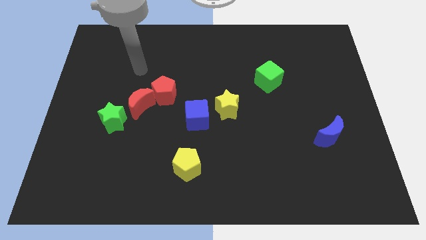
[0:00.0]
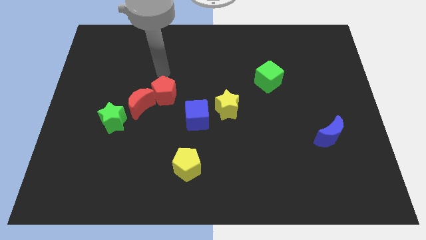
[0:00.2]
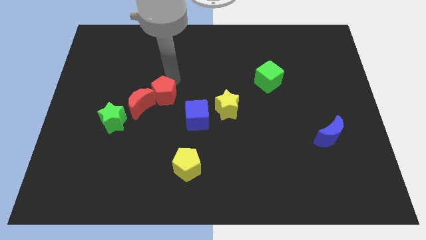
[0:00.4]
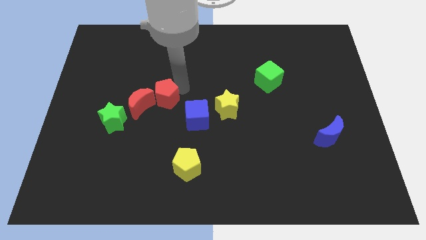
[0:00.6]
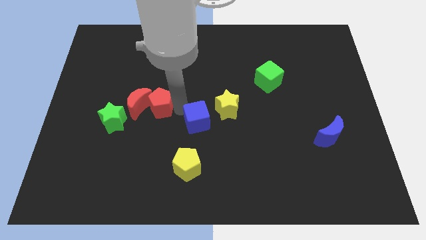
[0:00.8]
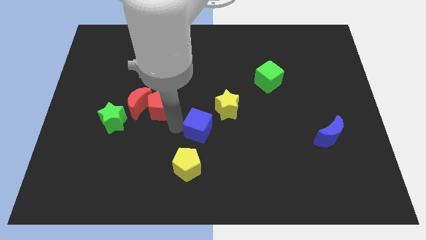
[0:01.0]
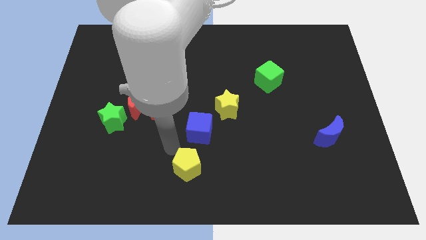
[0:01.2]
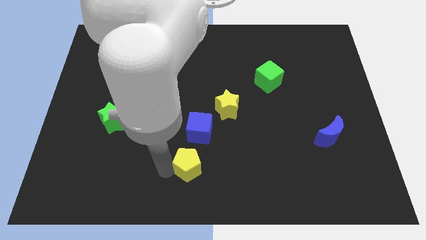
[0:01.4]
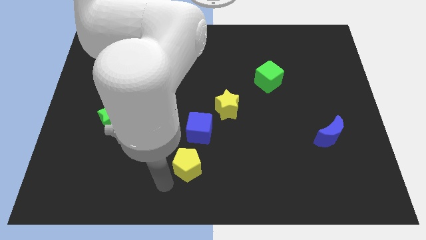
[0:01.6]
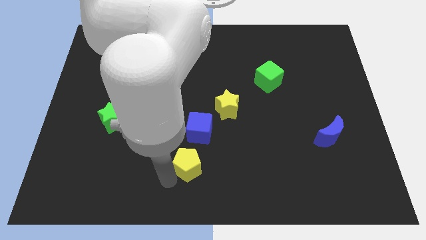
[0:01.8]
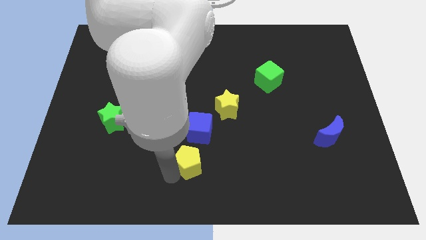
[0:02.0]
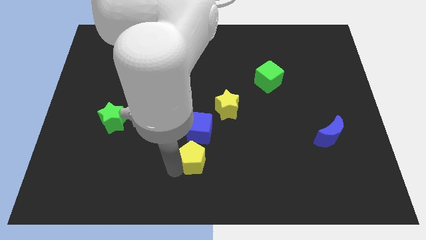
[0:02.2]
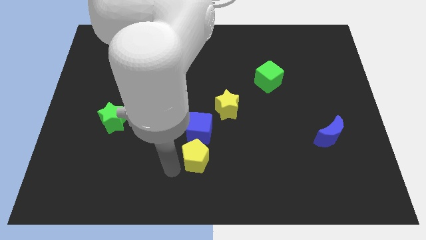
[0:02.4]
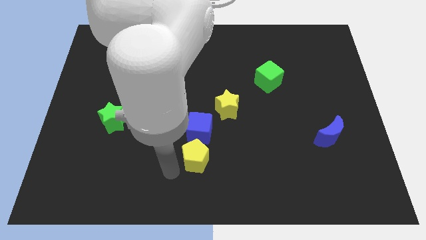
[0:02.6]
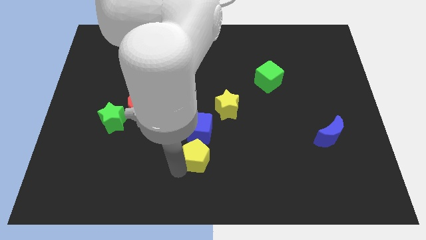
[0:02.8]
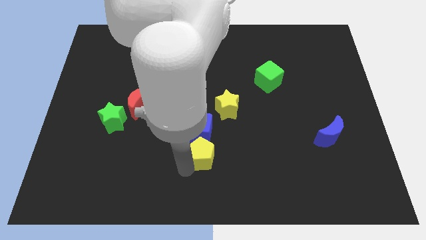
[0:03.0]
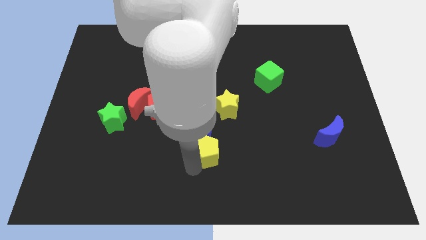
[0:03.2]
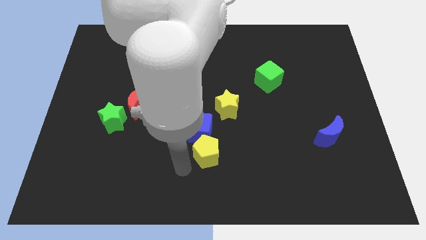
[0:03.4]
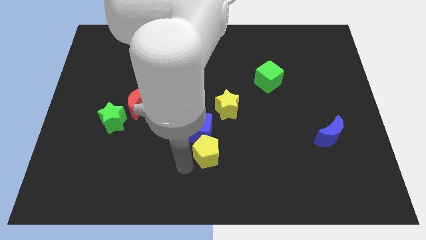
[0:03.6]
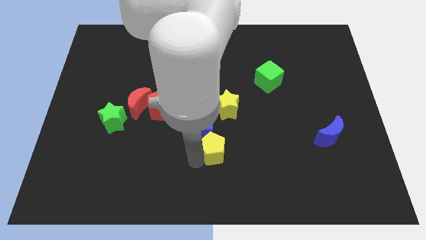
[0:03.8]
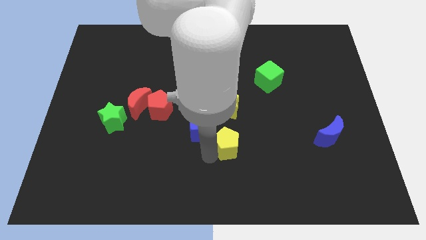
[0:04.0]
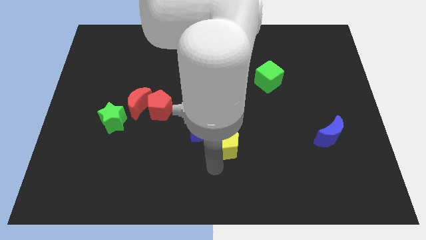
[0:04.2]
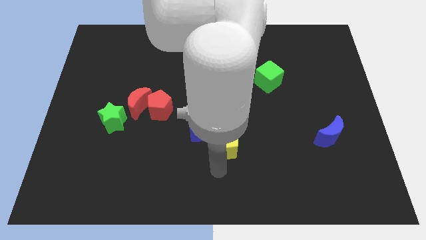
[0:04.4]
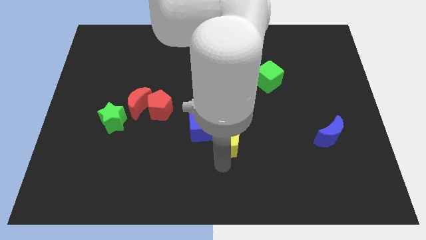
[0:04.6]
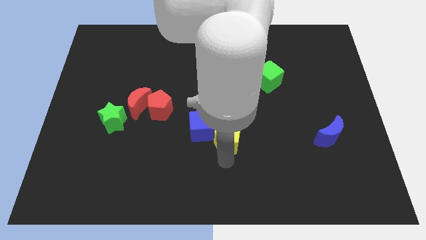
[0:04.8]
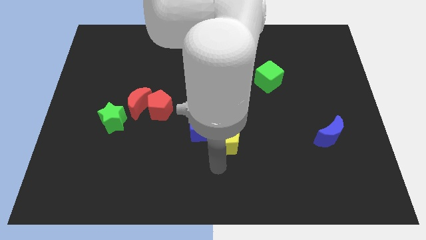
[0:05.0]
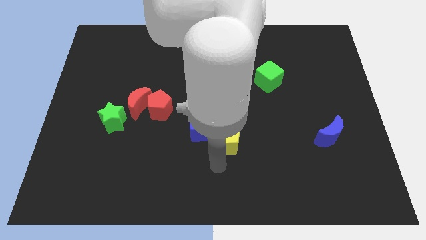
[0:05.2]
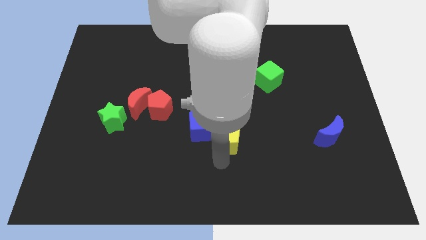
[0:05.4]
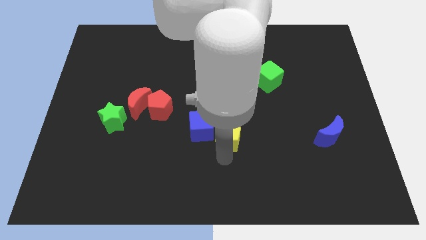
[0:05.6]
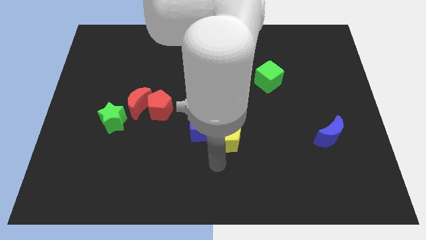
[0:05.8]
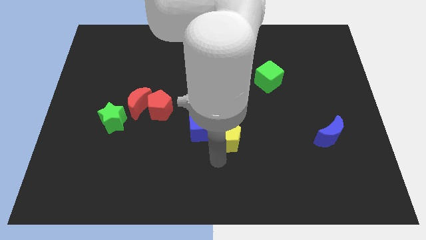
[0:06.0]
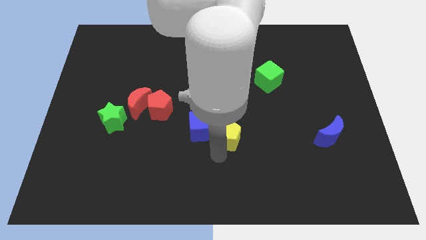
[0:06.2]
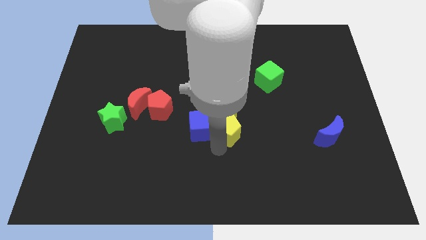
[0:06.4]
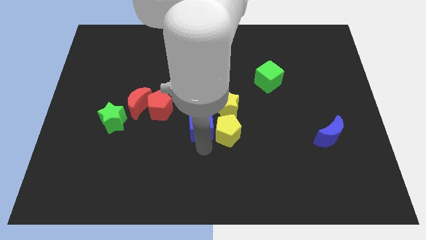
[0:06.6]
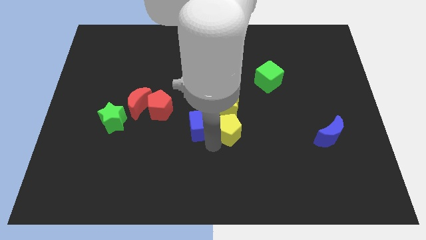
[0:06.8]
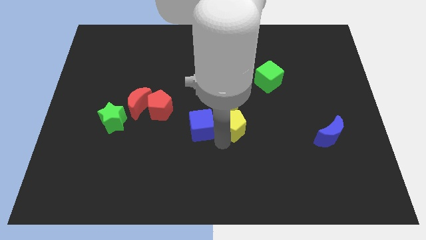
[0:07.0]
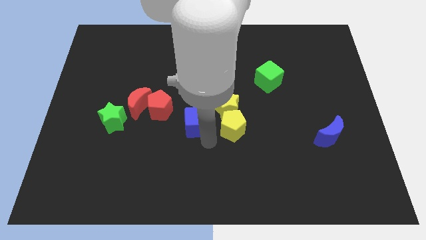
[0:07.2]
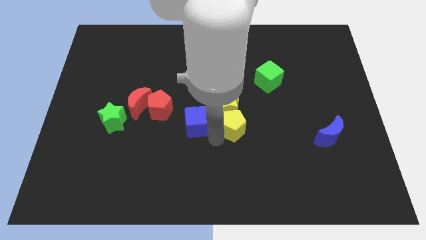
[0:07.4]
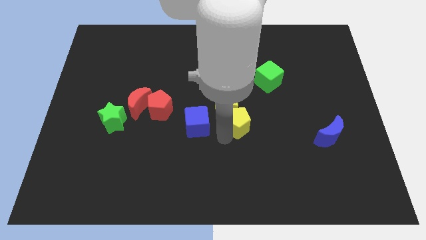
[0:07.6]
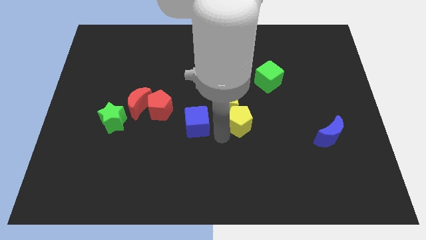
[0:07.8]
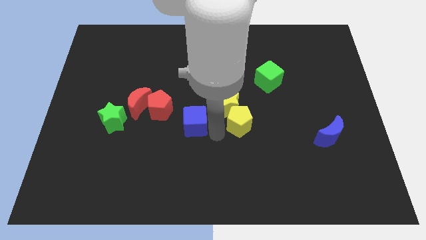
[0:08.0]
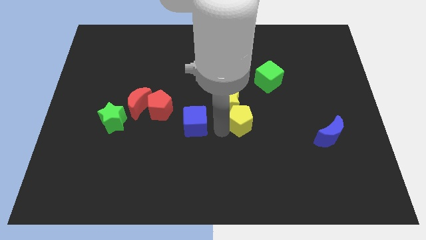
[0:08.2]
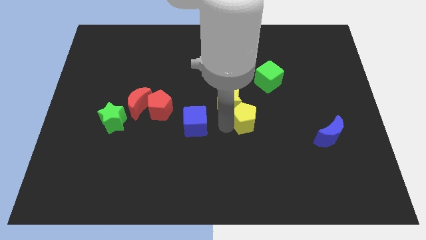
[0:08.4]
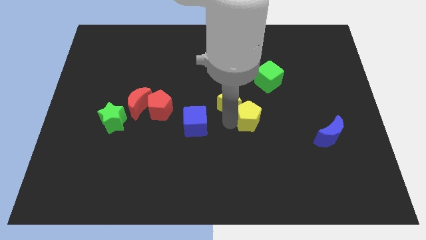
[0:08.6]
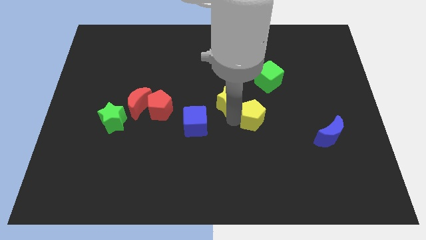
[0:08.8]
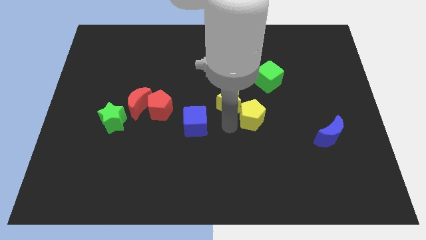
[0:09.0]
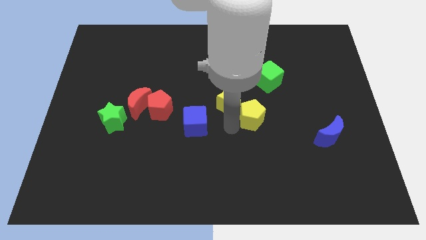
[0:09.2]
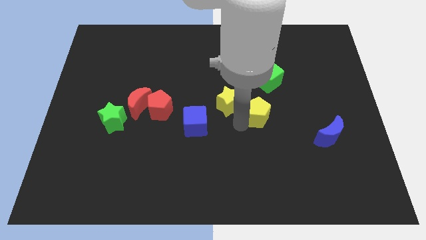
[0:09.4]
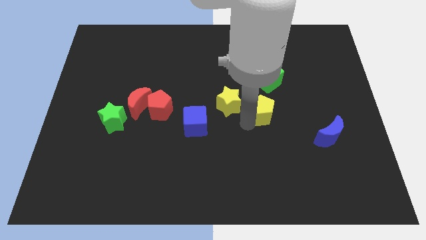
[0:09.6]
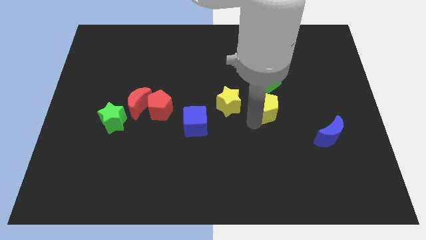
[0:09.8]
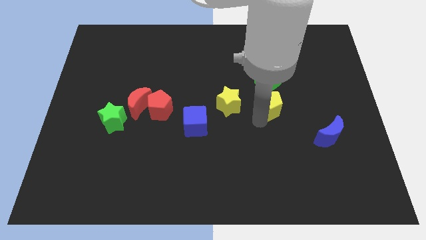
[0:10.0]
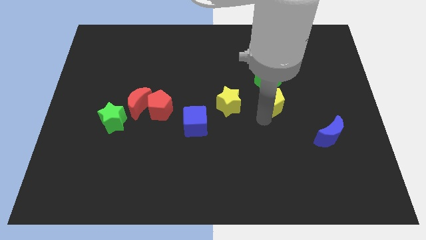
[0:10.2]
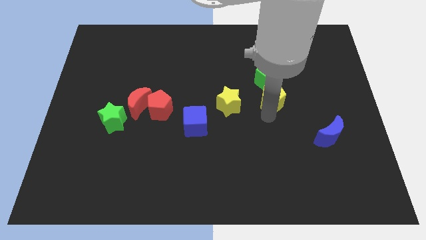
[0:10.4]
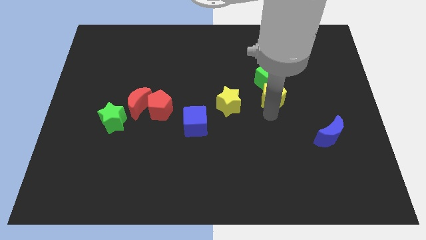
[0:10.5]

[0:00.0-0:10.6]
put the yellow pentagon to the green cube

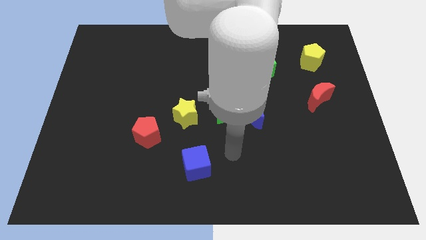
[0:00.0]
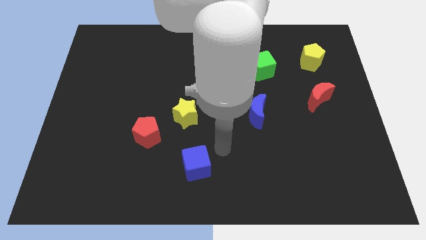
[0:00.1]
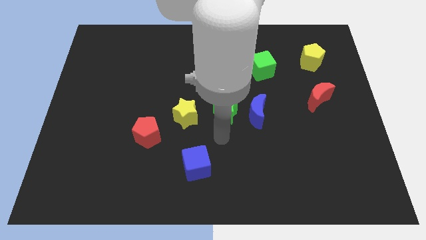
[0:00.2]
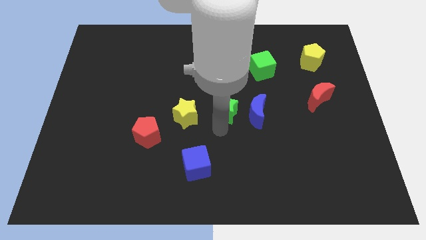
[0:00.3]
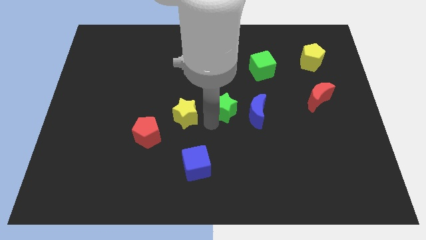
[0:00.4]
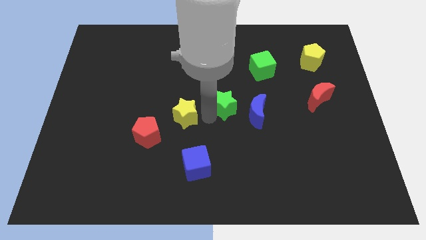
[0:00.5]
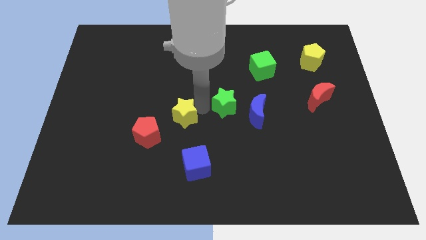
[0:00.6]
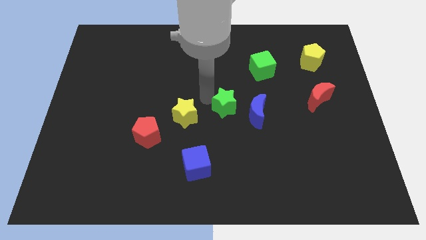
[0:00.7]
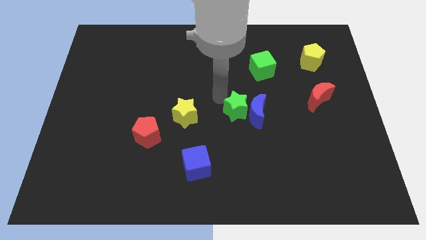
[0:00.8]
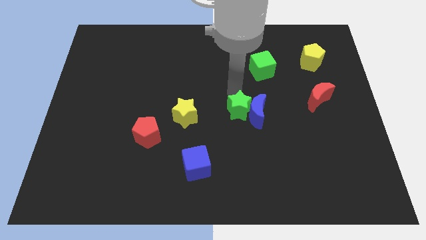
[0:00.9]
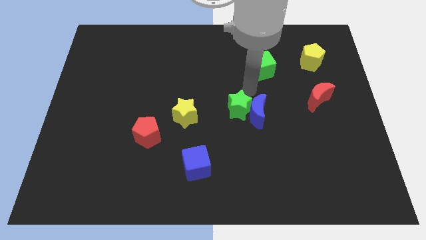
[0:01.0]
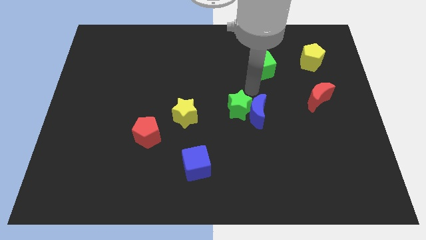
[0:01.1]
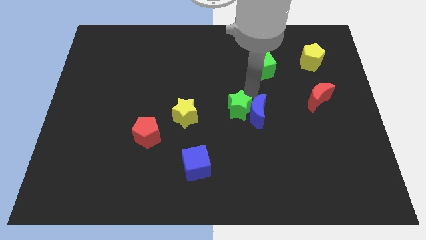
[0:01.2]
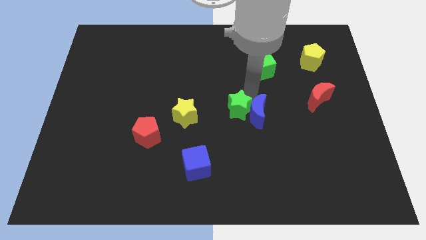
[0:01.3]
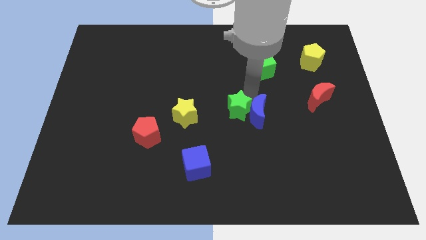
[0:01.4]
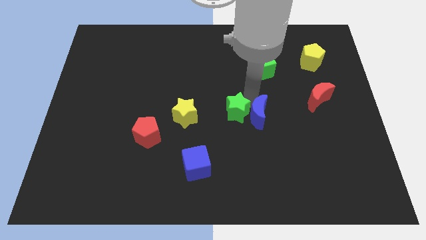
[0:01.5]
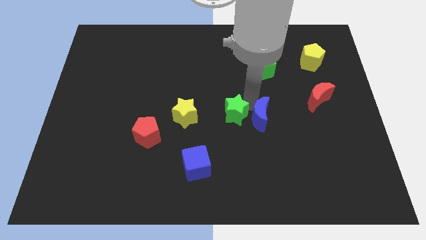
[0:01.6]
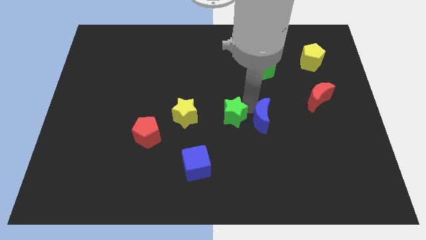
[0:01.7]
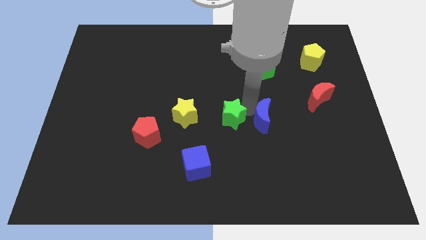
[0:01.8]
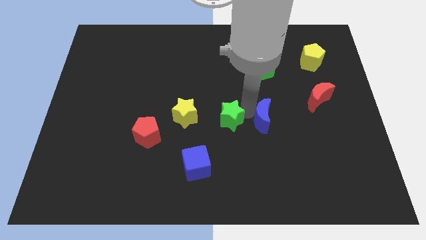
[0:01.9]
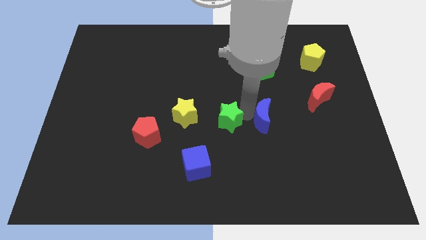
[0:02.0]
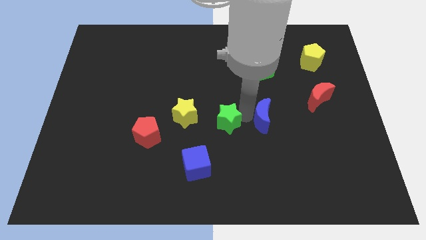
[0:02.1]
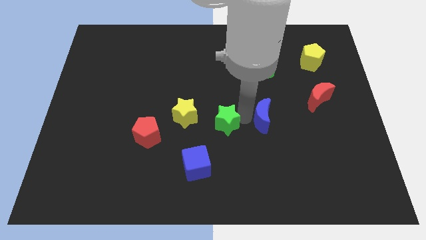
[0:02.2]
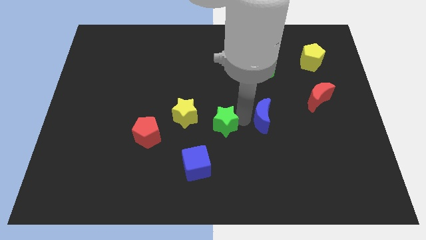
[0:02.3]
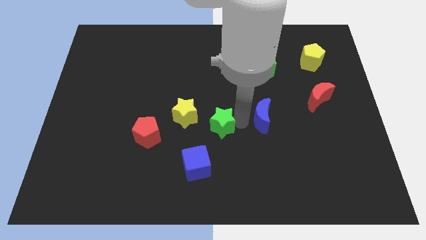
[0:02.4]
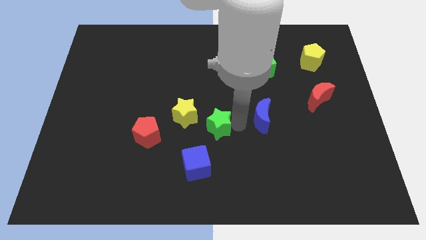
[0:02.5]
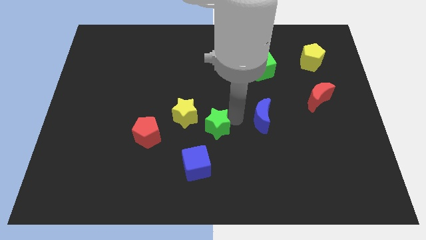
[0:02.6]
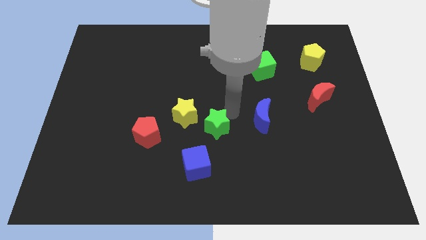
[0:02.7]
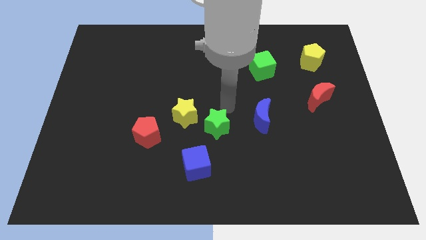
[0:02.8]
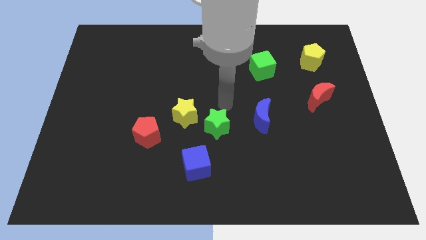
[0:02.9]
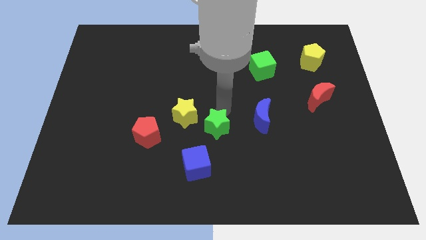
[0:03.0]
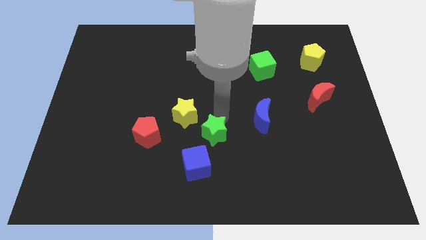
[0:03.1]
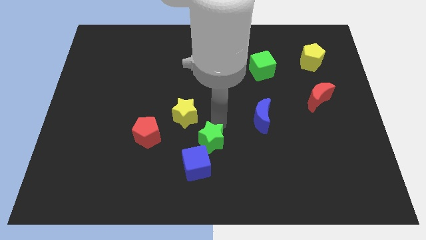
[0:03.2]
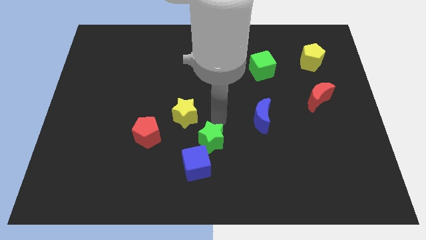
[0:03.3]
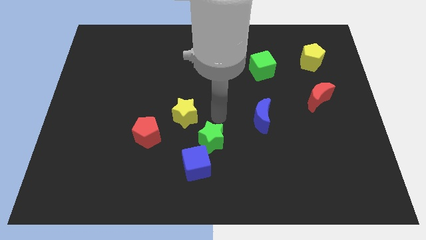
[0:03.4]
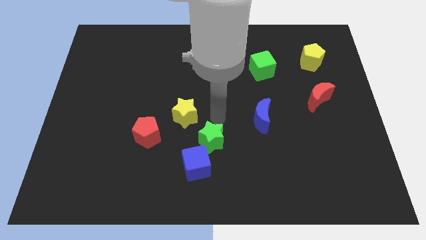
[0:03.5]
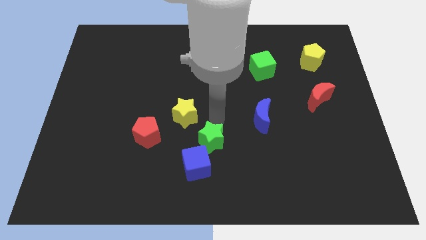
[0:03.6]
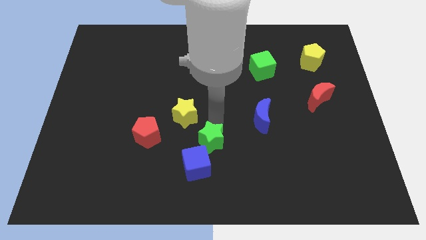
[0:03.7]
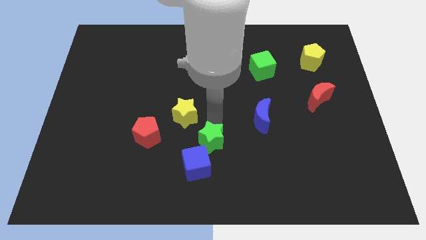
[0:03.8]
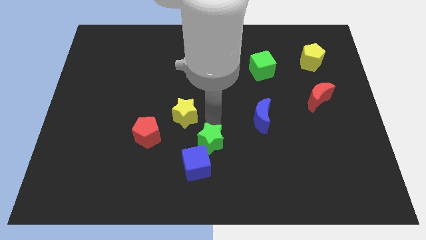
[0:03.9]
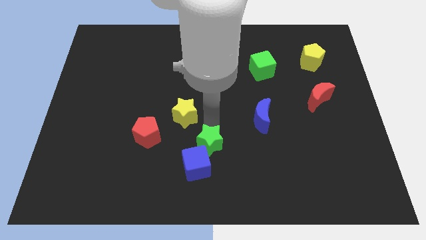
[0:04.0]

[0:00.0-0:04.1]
move the green star close to the blue cube
